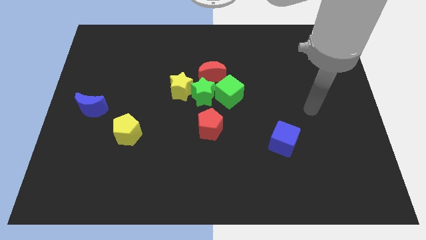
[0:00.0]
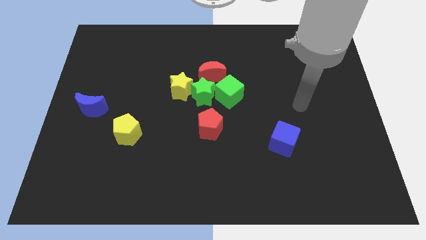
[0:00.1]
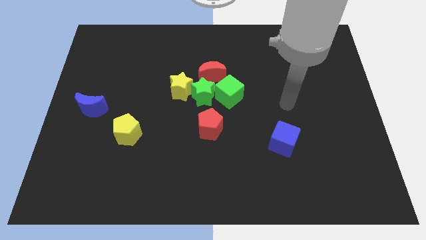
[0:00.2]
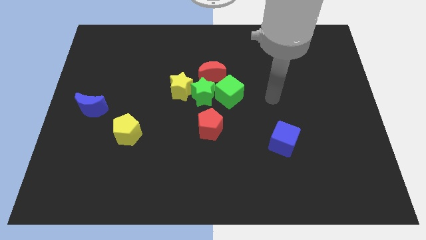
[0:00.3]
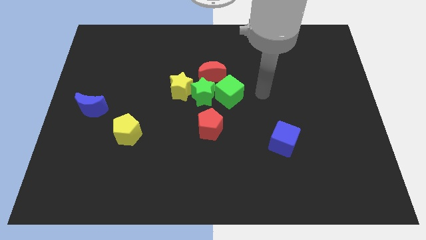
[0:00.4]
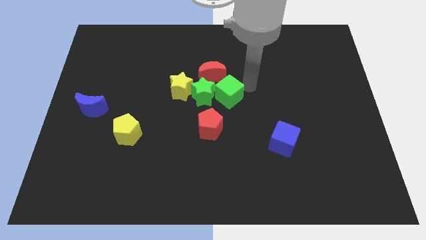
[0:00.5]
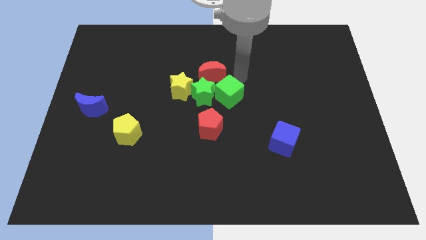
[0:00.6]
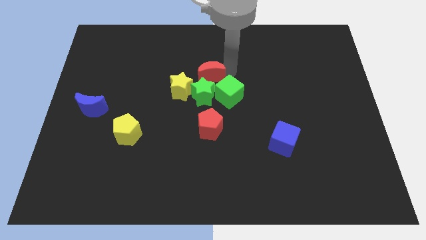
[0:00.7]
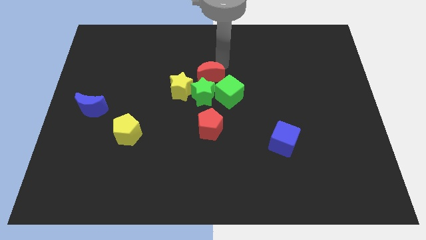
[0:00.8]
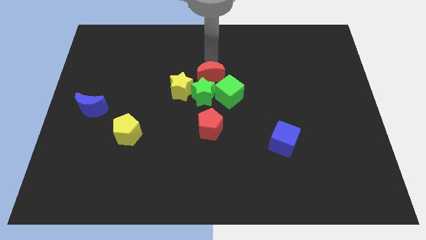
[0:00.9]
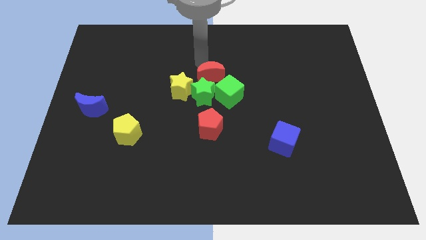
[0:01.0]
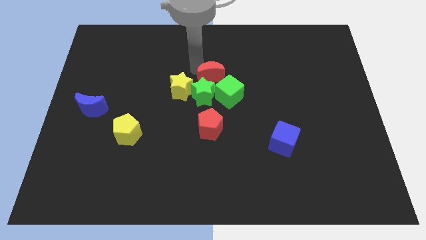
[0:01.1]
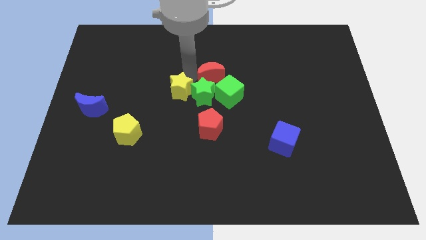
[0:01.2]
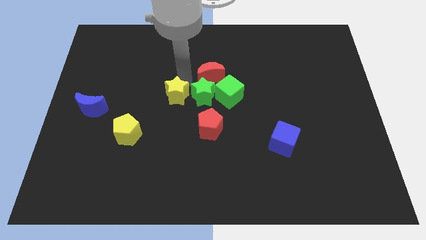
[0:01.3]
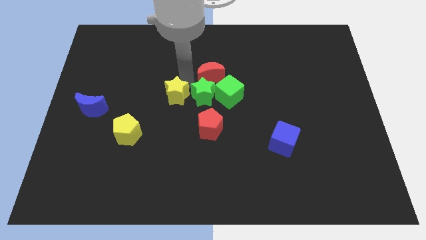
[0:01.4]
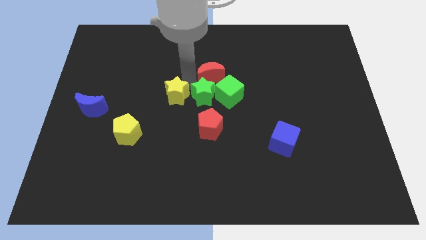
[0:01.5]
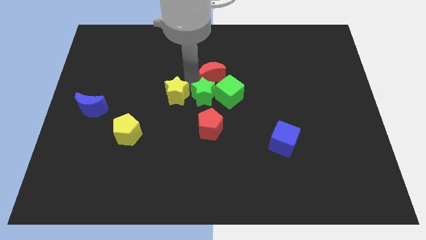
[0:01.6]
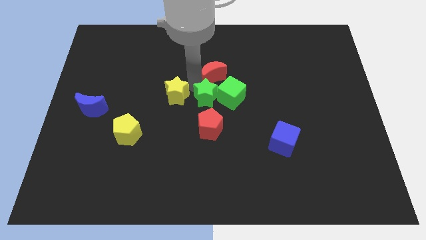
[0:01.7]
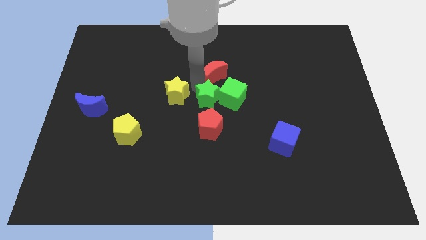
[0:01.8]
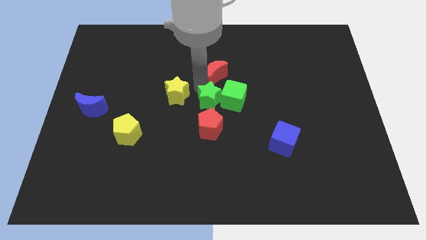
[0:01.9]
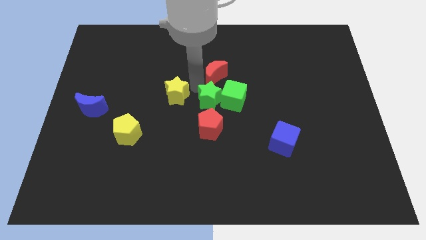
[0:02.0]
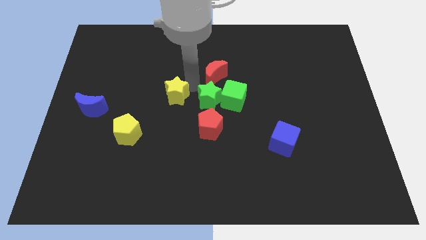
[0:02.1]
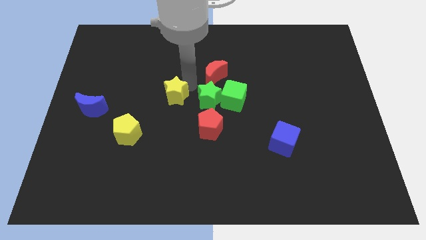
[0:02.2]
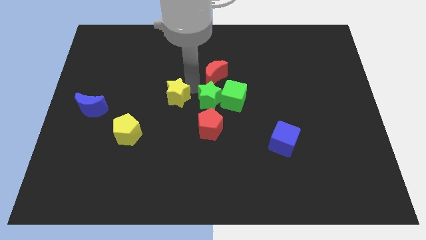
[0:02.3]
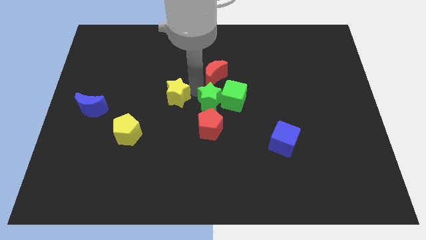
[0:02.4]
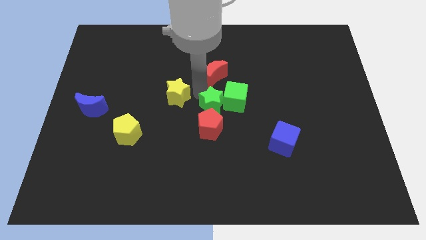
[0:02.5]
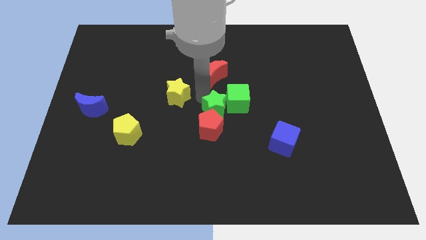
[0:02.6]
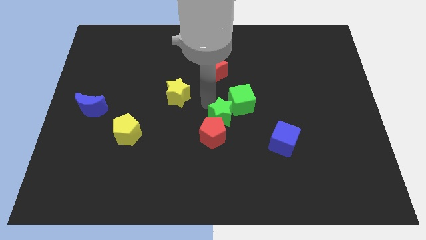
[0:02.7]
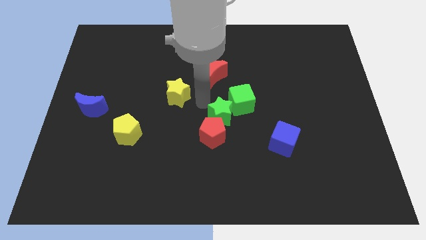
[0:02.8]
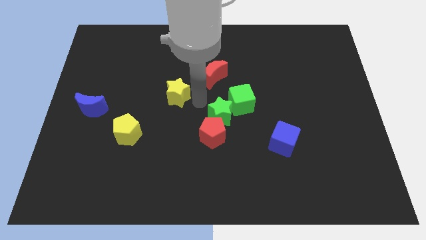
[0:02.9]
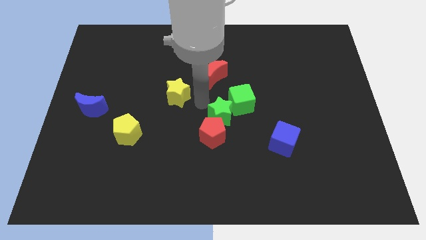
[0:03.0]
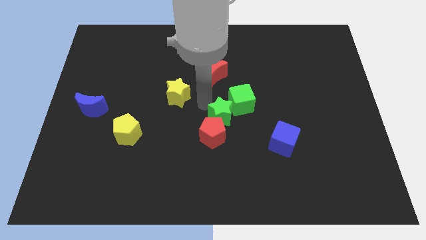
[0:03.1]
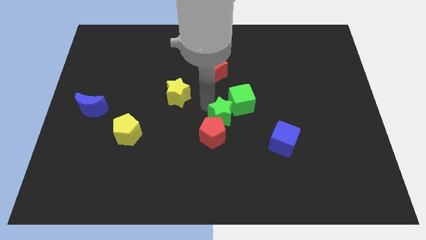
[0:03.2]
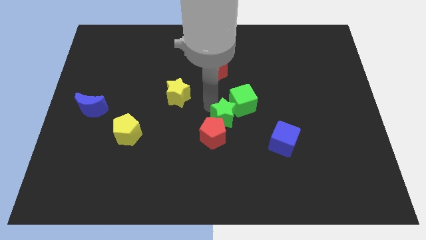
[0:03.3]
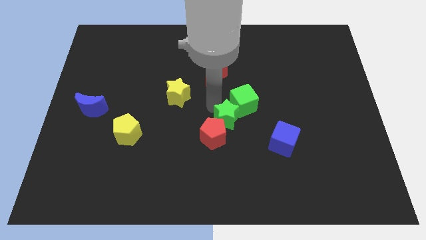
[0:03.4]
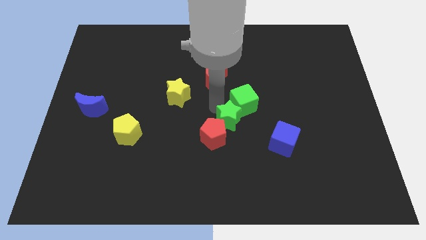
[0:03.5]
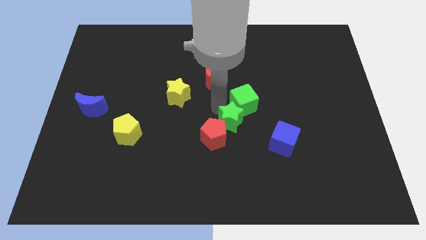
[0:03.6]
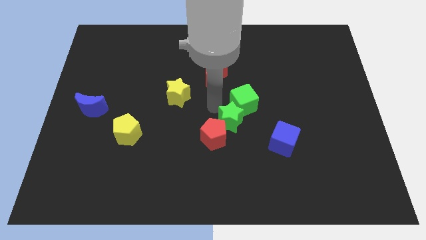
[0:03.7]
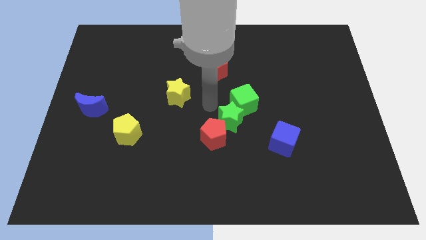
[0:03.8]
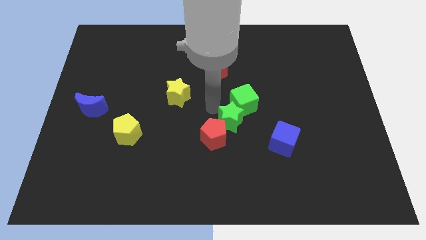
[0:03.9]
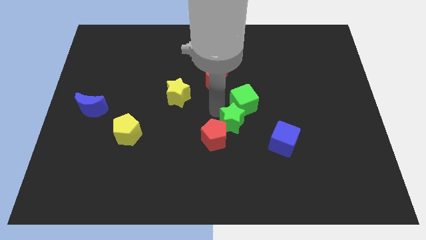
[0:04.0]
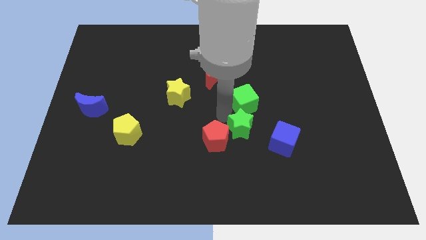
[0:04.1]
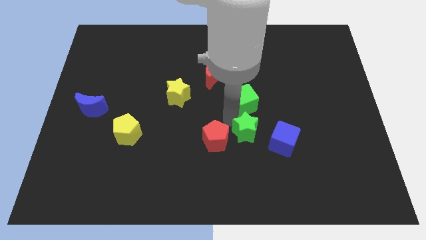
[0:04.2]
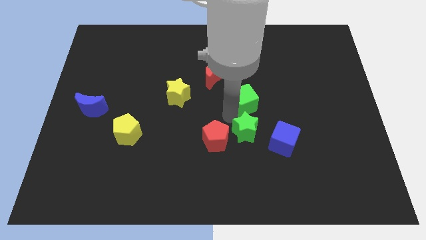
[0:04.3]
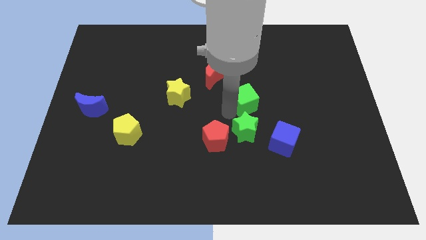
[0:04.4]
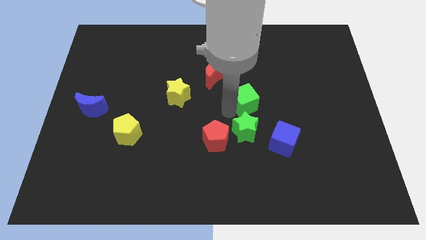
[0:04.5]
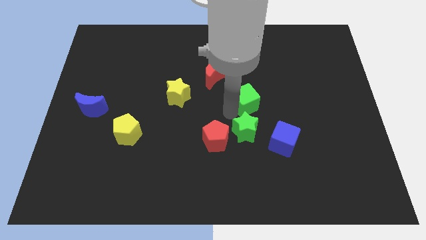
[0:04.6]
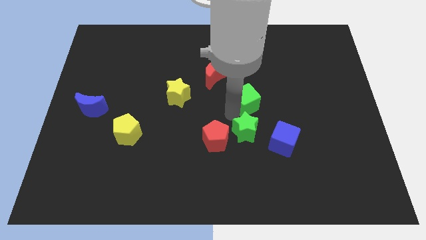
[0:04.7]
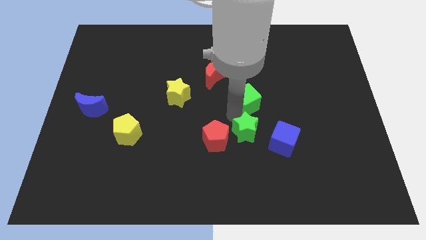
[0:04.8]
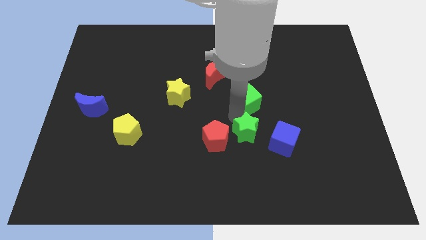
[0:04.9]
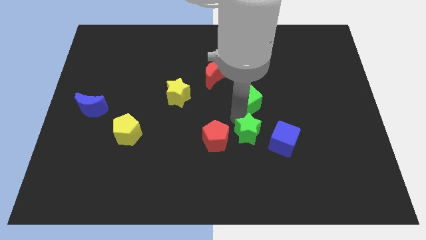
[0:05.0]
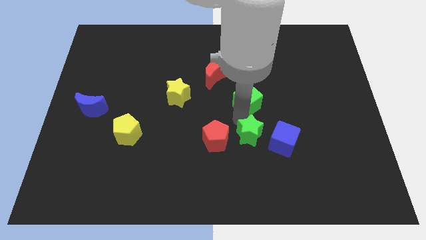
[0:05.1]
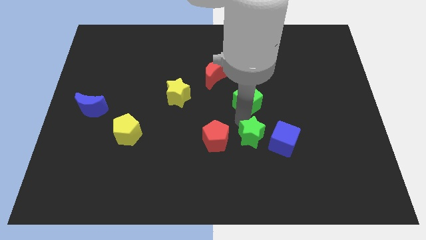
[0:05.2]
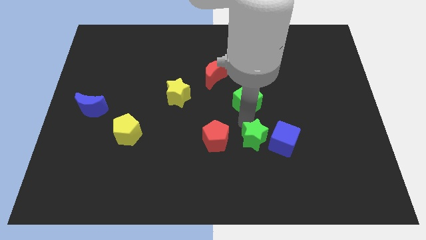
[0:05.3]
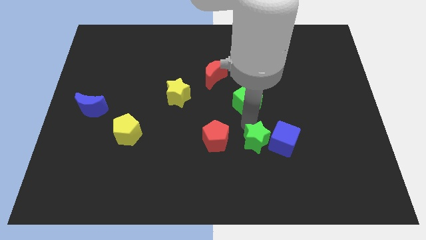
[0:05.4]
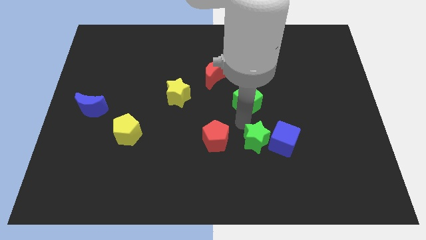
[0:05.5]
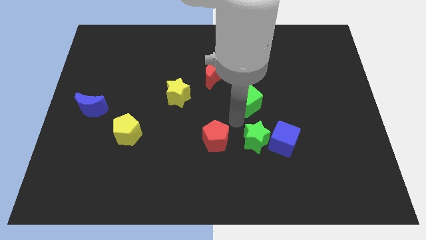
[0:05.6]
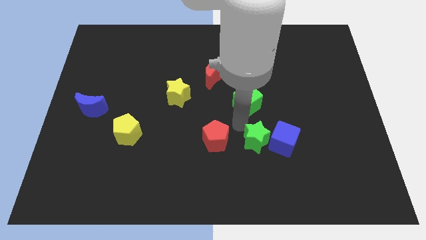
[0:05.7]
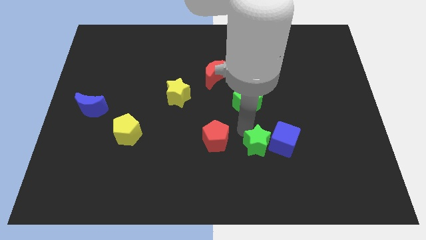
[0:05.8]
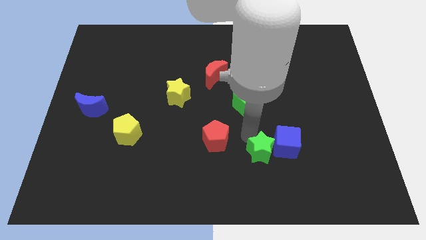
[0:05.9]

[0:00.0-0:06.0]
move the green star downwards and then right

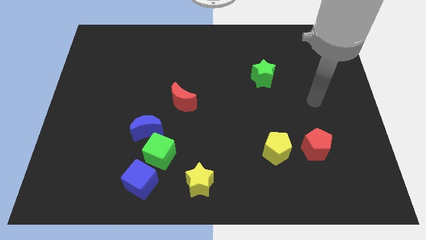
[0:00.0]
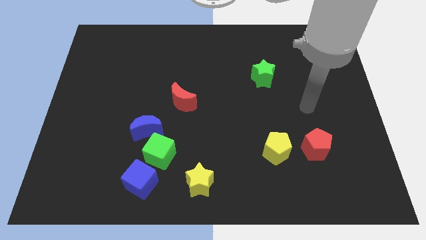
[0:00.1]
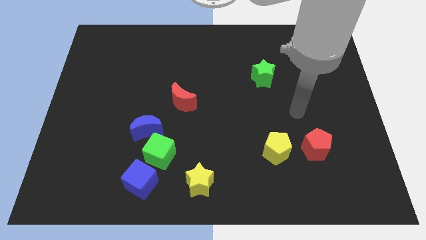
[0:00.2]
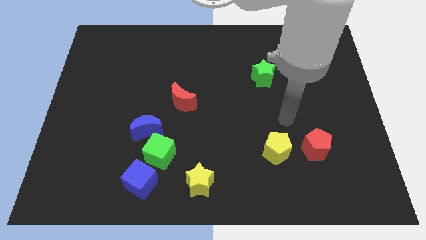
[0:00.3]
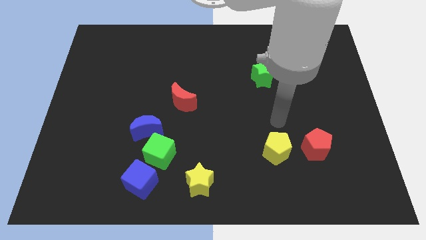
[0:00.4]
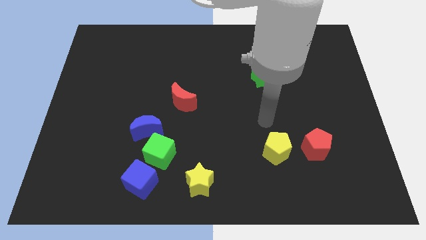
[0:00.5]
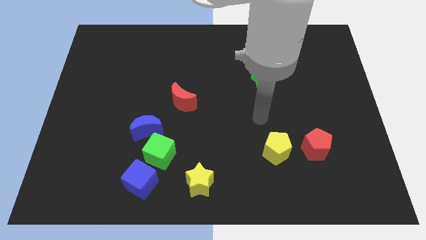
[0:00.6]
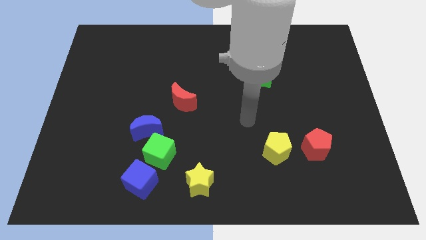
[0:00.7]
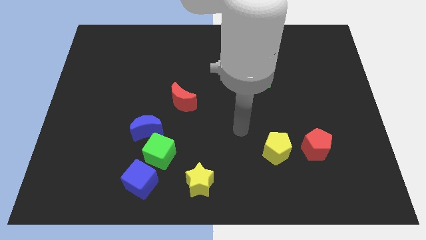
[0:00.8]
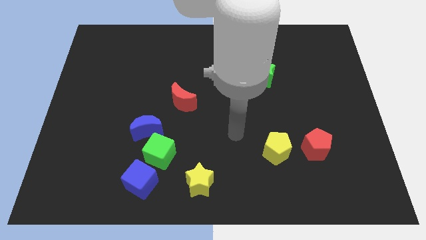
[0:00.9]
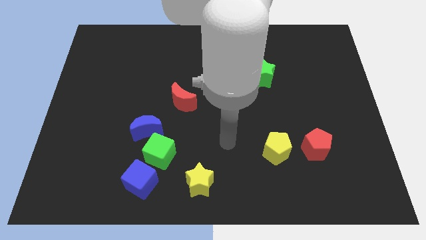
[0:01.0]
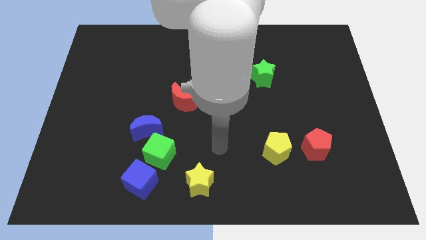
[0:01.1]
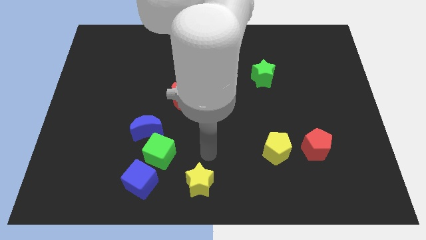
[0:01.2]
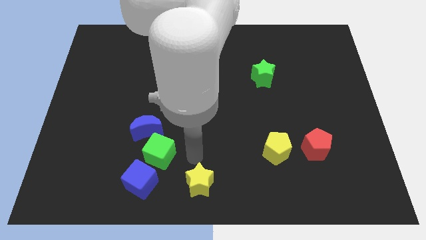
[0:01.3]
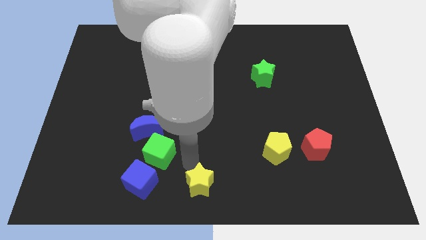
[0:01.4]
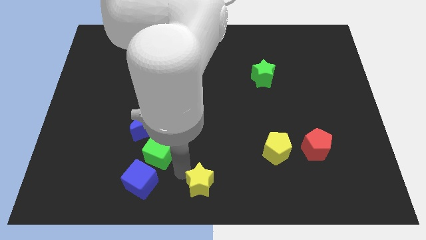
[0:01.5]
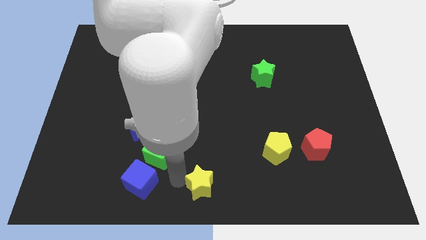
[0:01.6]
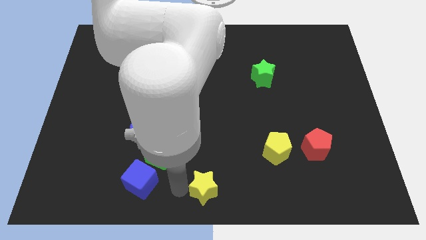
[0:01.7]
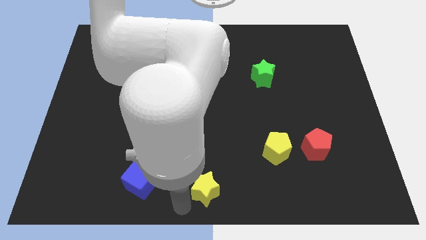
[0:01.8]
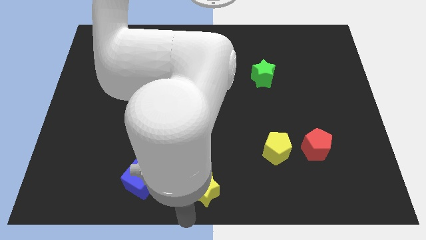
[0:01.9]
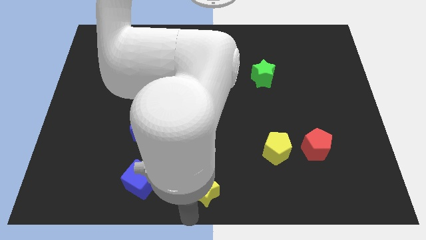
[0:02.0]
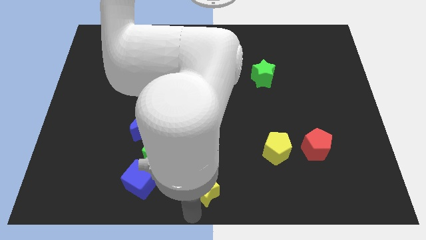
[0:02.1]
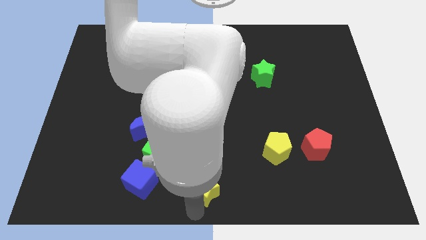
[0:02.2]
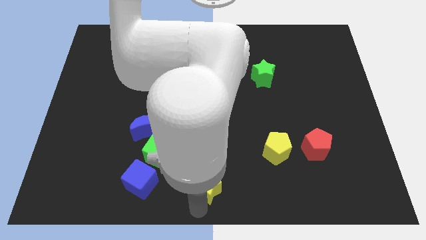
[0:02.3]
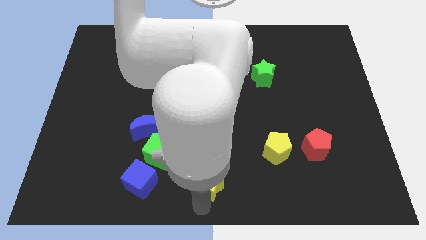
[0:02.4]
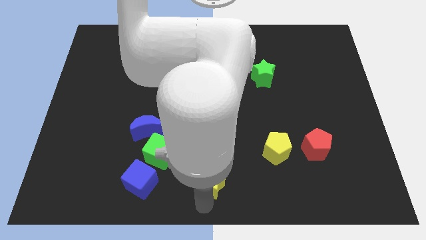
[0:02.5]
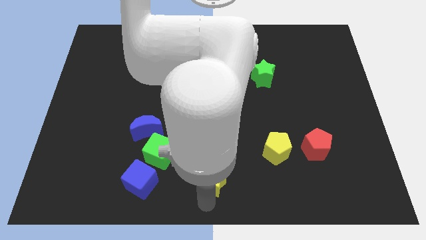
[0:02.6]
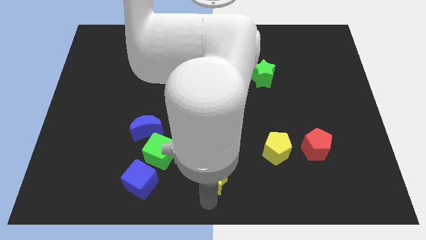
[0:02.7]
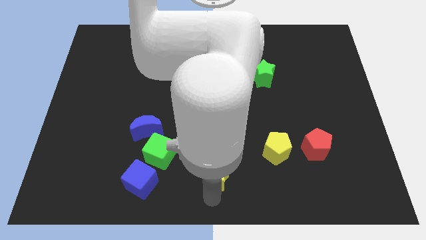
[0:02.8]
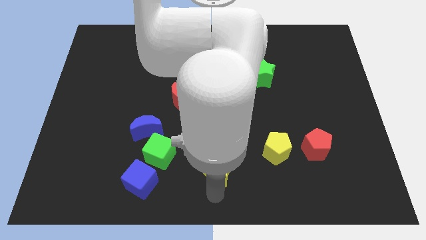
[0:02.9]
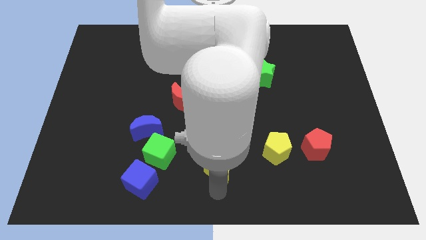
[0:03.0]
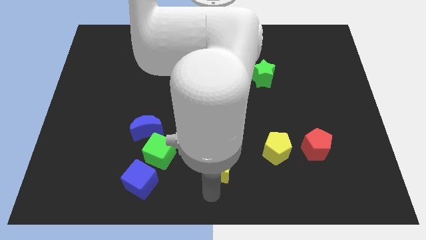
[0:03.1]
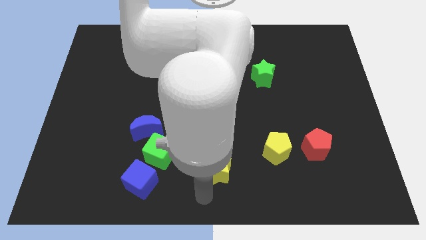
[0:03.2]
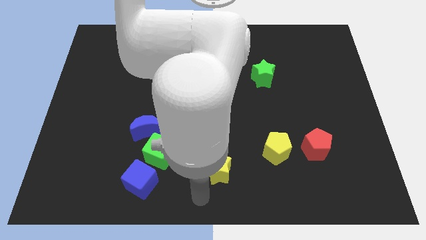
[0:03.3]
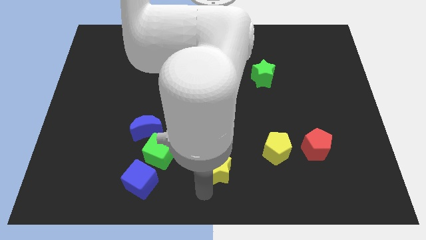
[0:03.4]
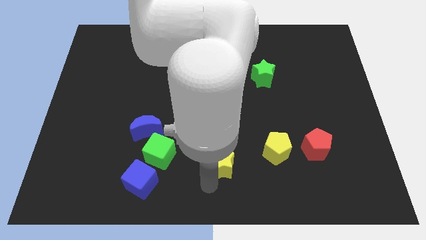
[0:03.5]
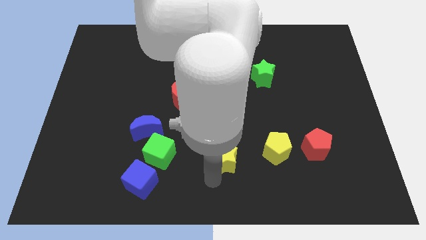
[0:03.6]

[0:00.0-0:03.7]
slightly move the yellow star upwards and to the right diagonally
